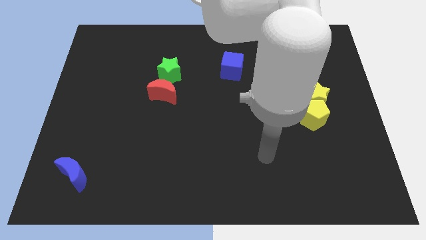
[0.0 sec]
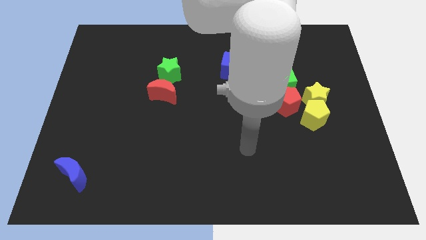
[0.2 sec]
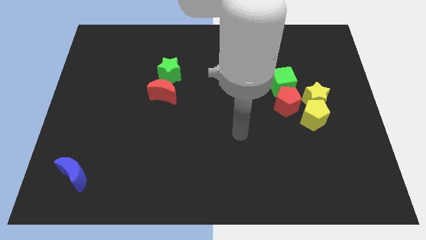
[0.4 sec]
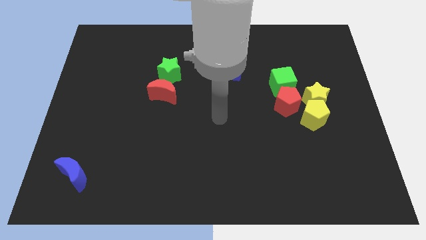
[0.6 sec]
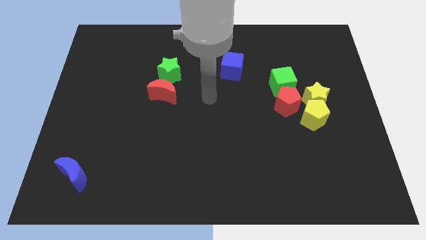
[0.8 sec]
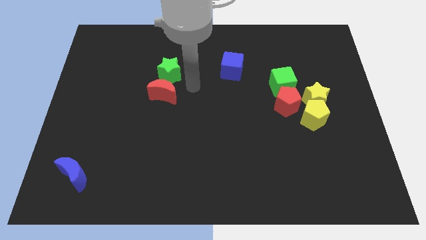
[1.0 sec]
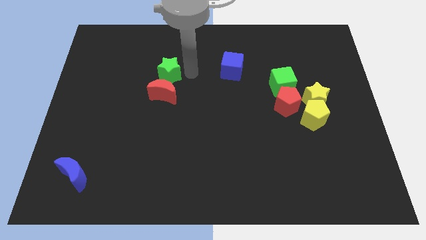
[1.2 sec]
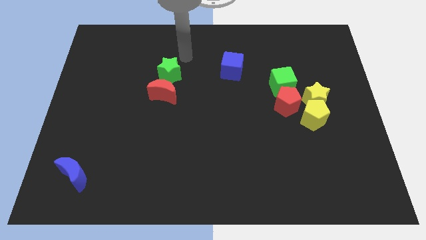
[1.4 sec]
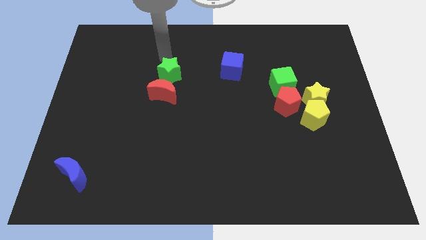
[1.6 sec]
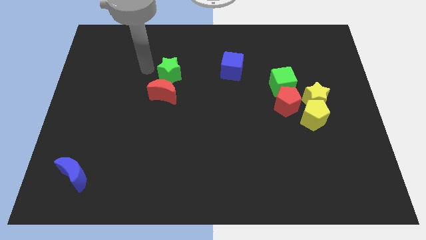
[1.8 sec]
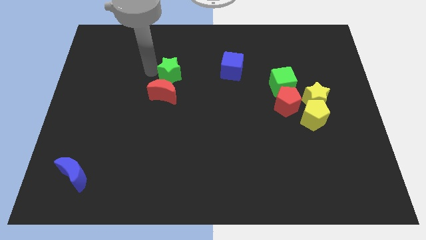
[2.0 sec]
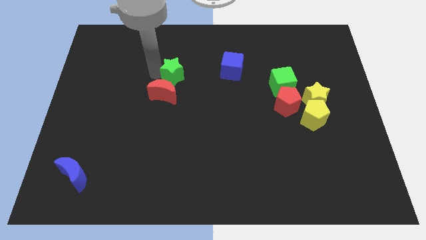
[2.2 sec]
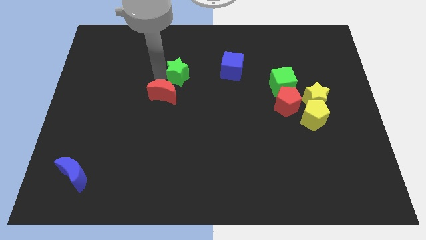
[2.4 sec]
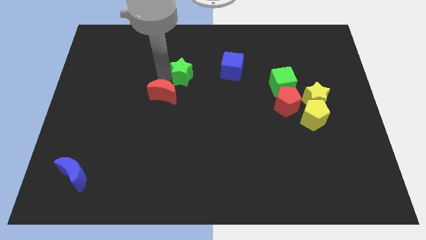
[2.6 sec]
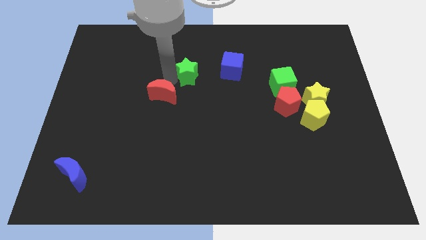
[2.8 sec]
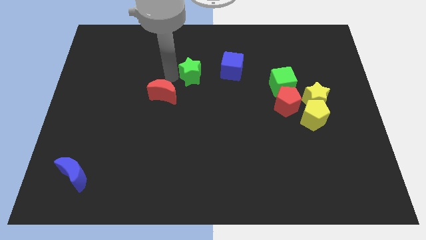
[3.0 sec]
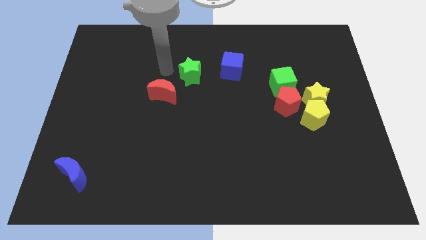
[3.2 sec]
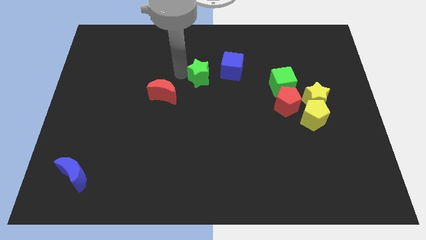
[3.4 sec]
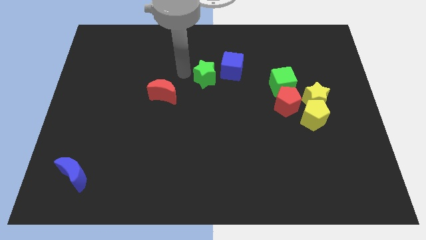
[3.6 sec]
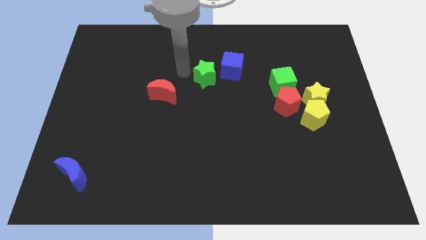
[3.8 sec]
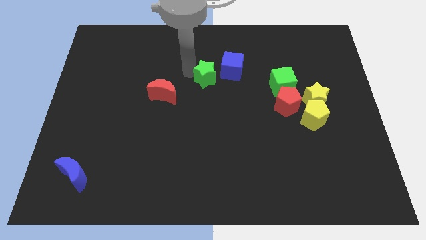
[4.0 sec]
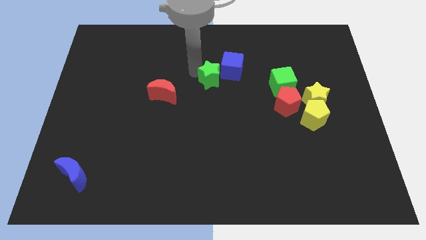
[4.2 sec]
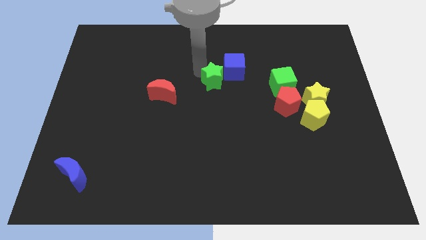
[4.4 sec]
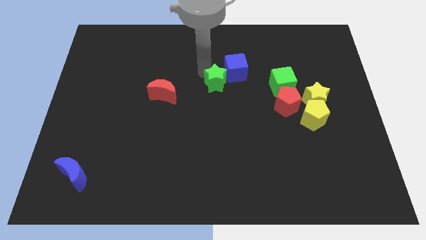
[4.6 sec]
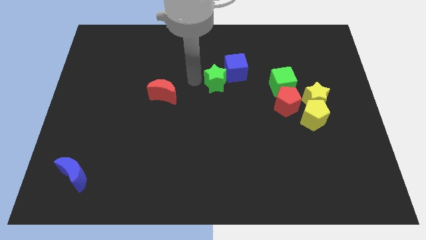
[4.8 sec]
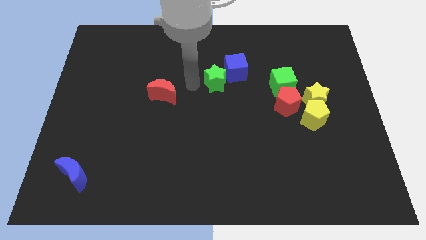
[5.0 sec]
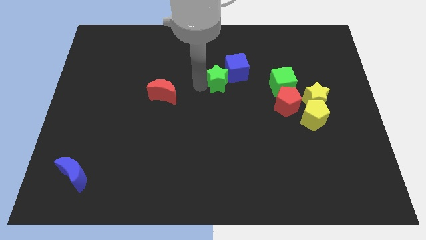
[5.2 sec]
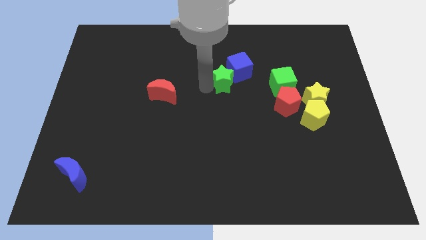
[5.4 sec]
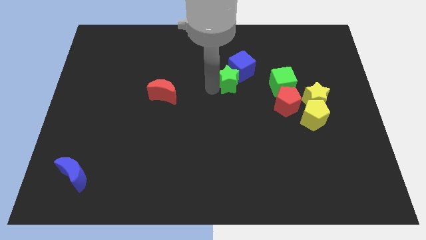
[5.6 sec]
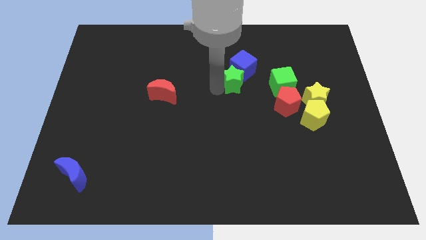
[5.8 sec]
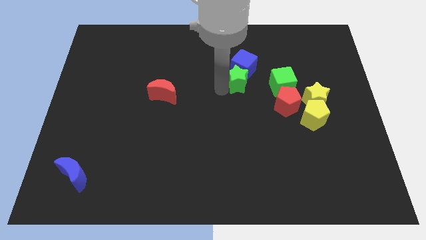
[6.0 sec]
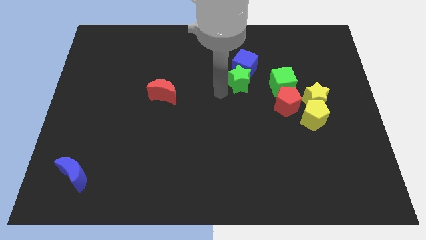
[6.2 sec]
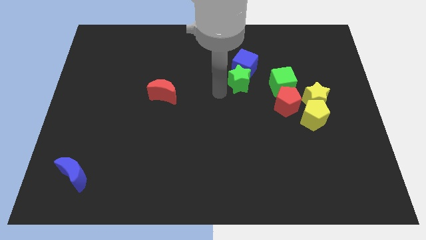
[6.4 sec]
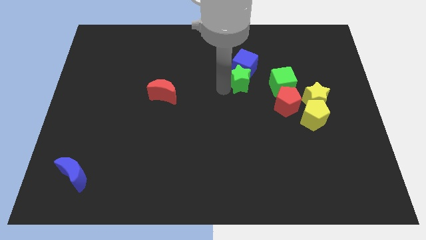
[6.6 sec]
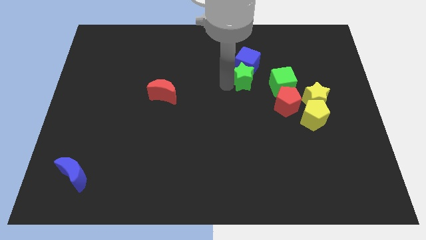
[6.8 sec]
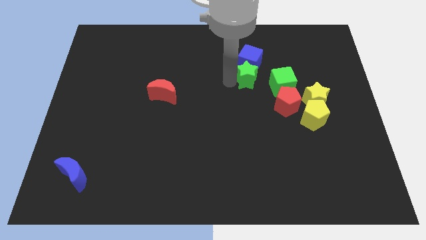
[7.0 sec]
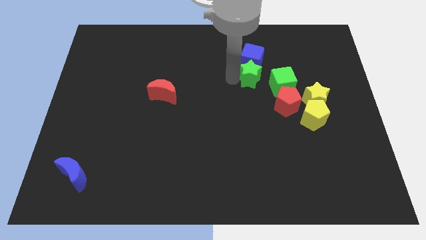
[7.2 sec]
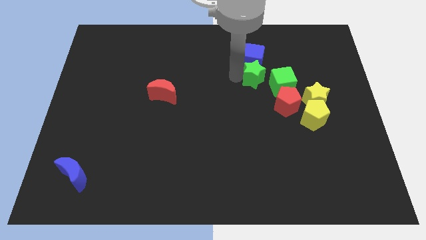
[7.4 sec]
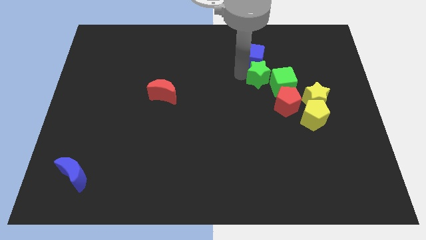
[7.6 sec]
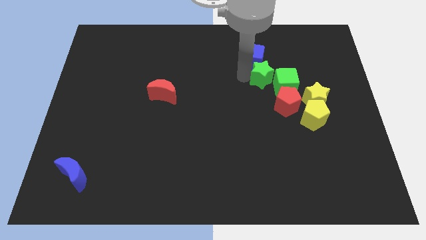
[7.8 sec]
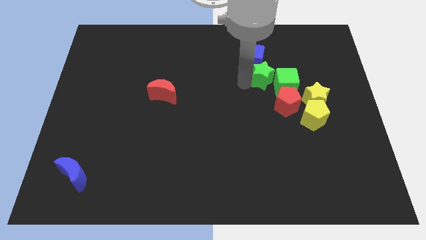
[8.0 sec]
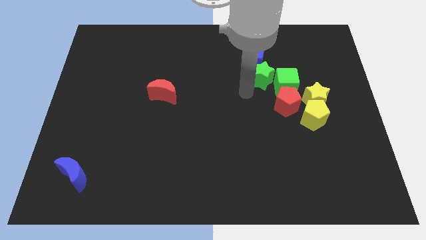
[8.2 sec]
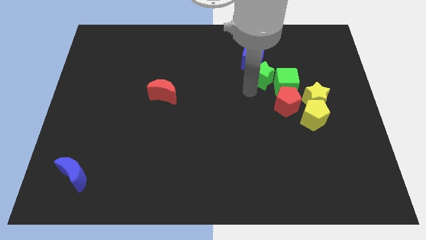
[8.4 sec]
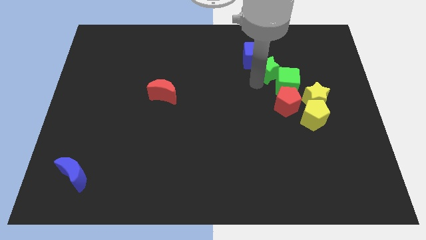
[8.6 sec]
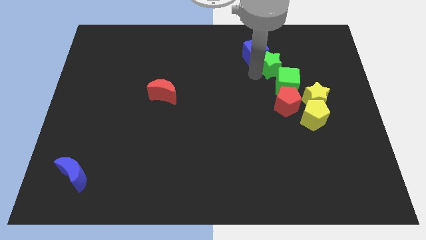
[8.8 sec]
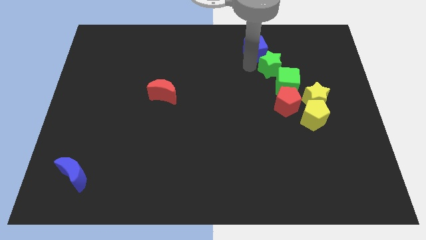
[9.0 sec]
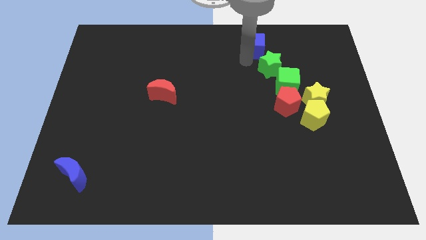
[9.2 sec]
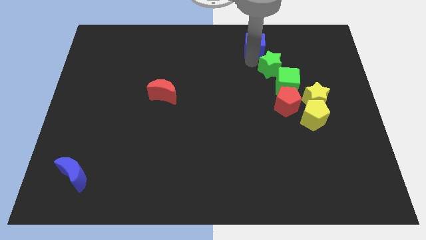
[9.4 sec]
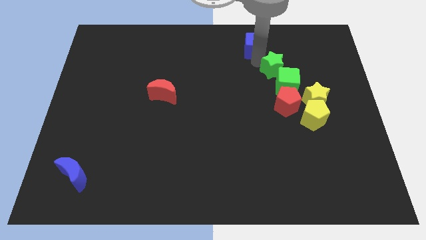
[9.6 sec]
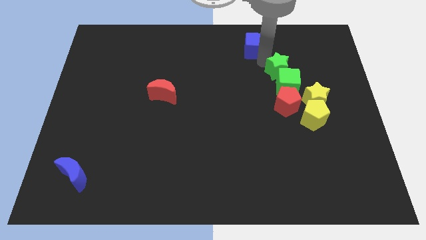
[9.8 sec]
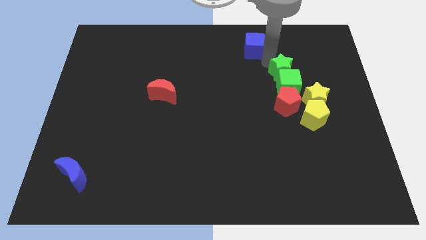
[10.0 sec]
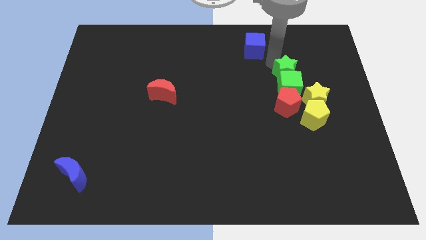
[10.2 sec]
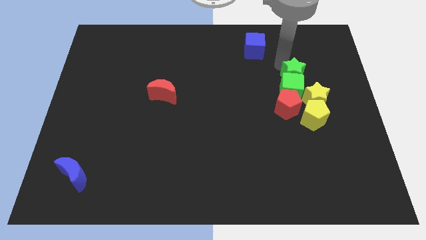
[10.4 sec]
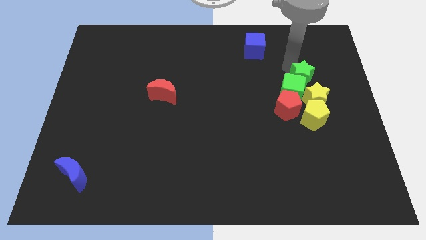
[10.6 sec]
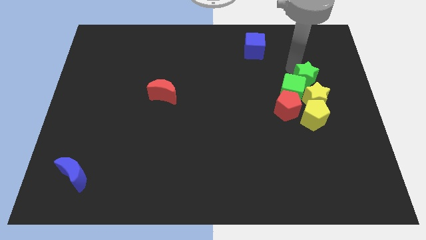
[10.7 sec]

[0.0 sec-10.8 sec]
put the green star to the right side of the green cube

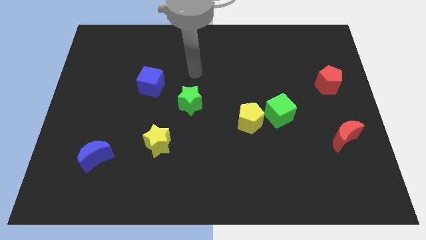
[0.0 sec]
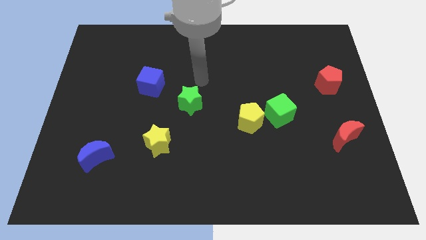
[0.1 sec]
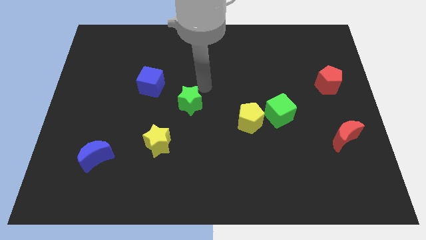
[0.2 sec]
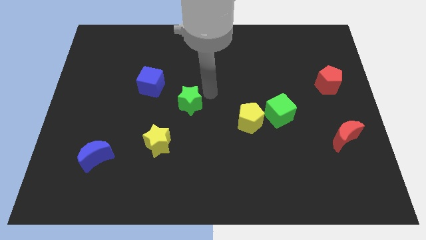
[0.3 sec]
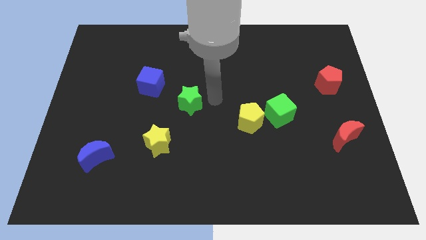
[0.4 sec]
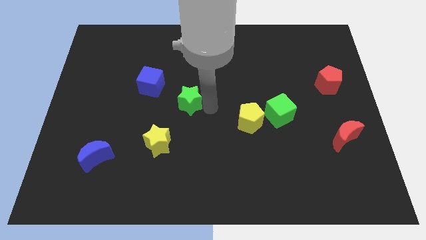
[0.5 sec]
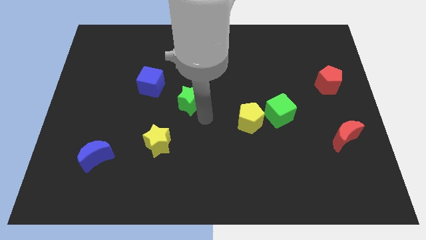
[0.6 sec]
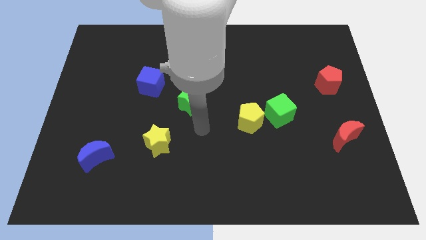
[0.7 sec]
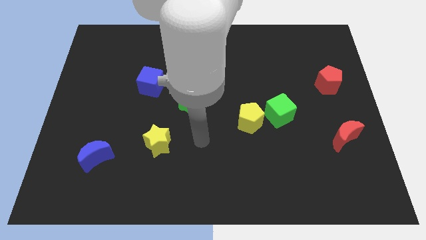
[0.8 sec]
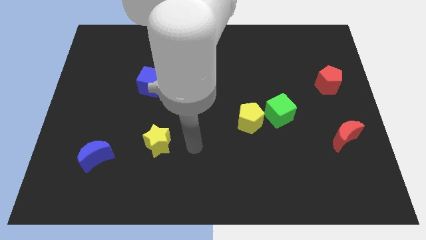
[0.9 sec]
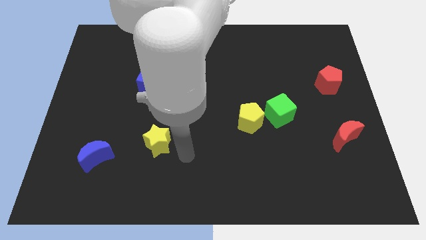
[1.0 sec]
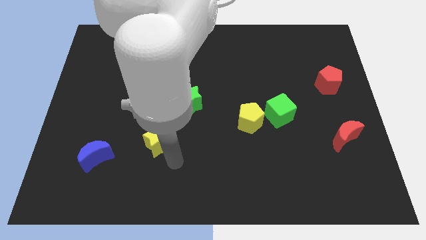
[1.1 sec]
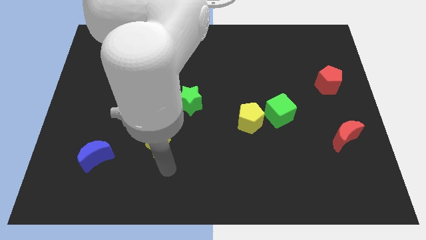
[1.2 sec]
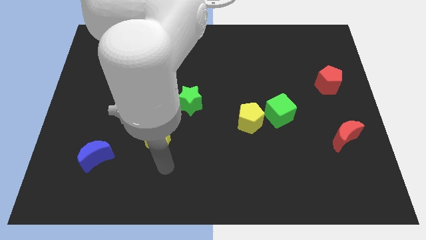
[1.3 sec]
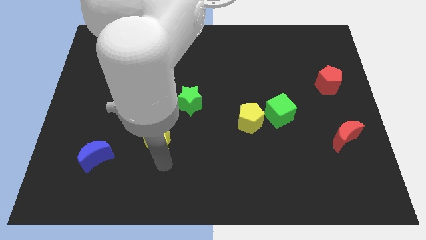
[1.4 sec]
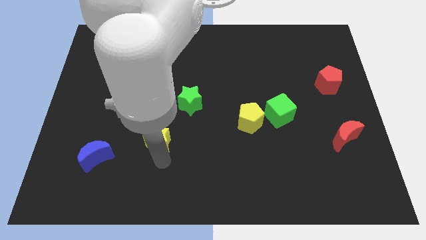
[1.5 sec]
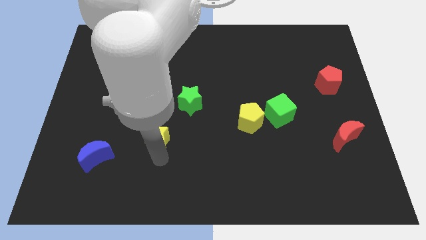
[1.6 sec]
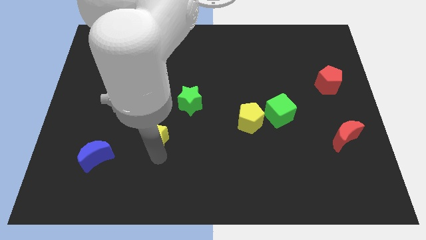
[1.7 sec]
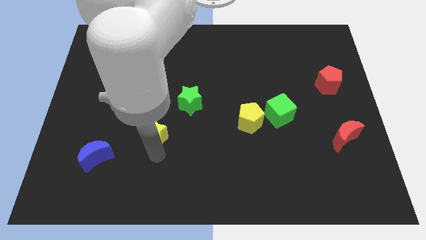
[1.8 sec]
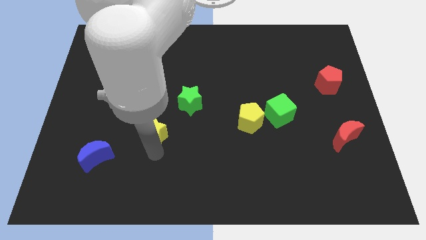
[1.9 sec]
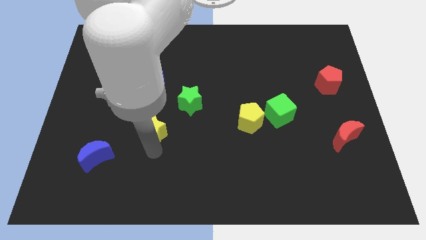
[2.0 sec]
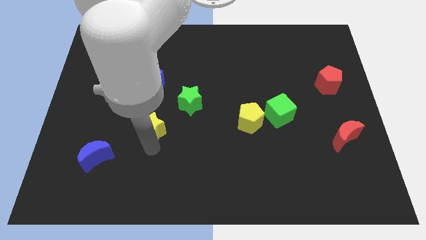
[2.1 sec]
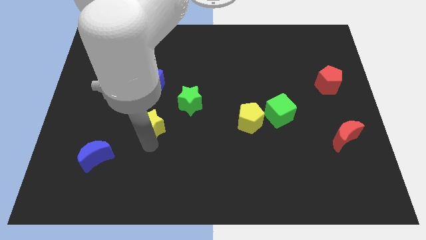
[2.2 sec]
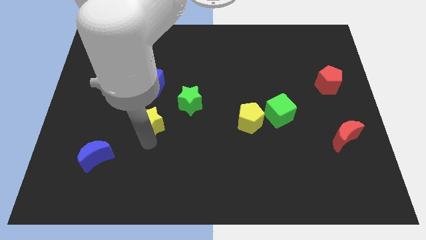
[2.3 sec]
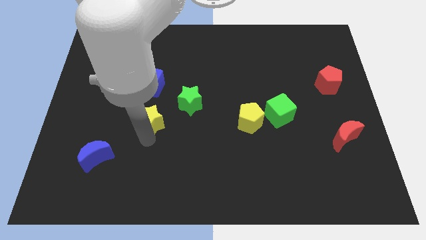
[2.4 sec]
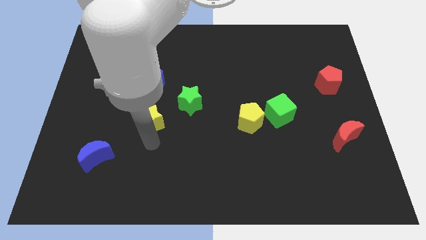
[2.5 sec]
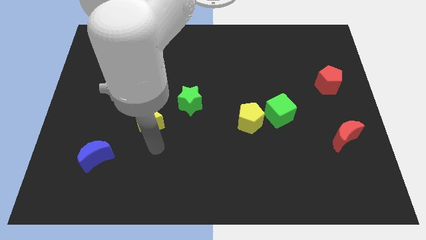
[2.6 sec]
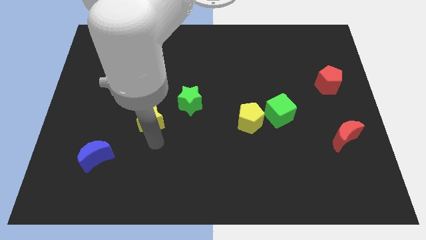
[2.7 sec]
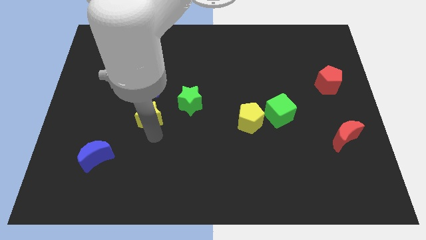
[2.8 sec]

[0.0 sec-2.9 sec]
put the yellow star left of the green star
